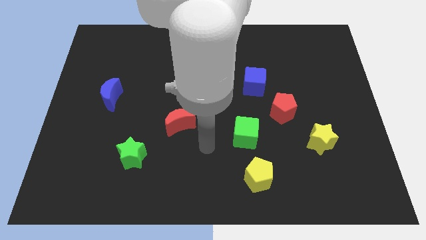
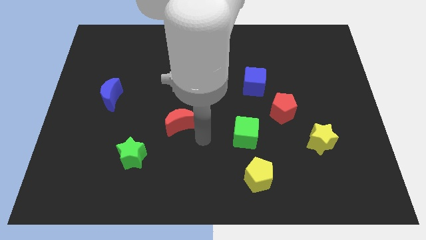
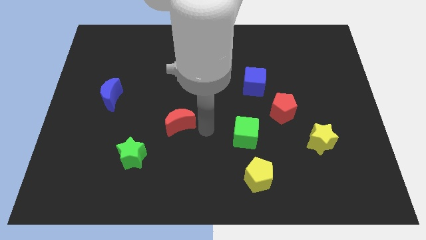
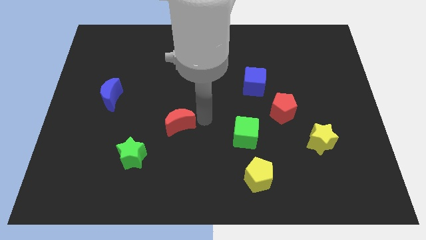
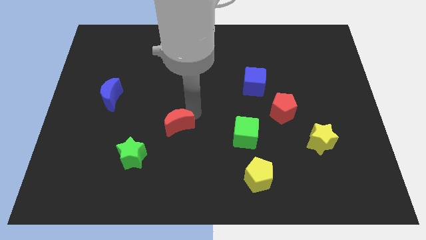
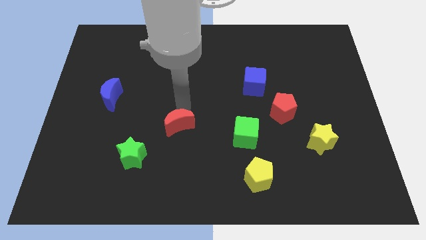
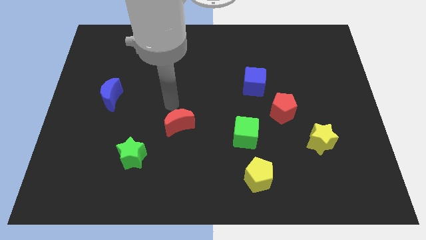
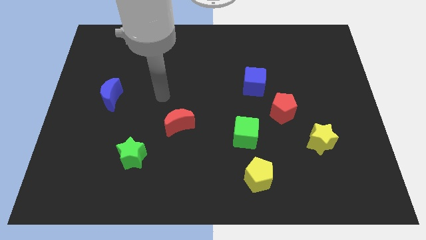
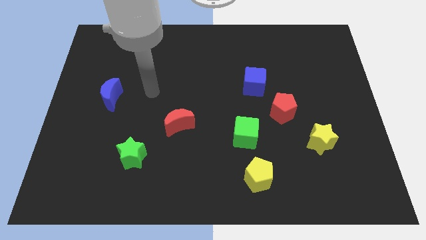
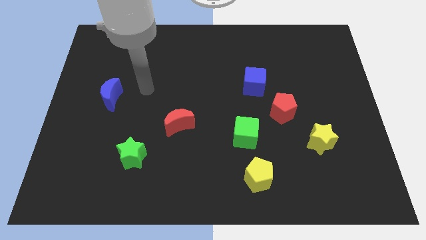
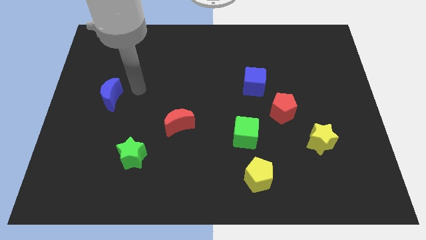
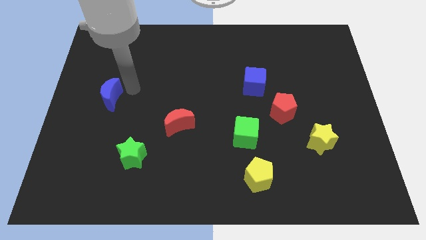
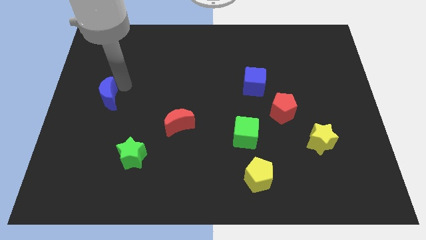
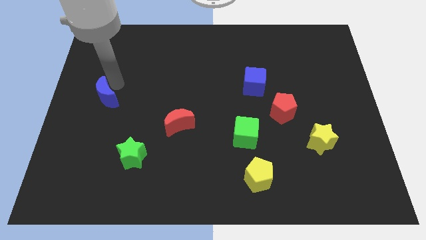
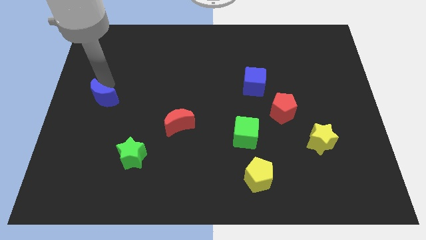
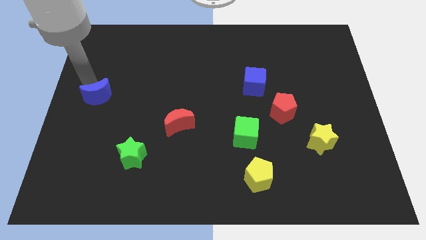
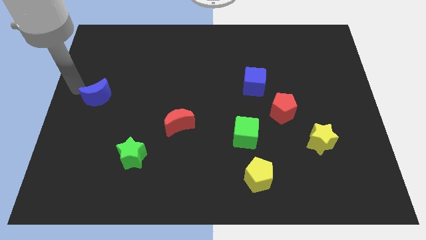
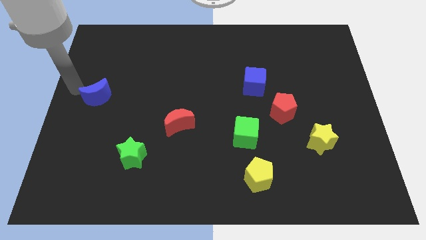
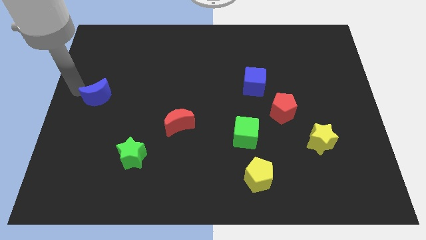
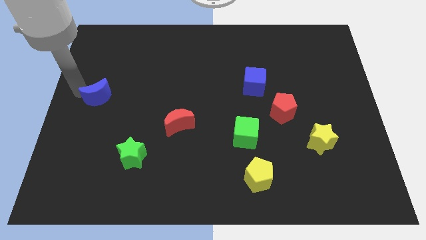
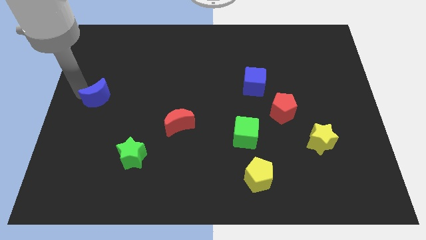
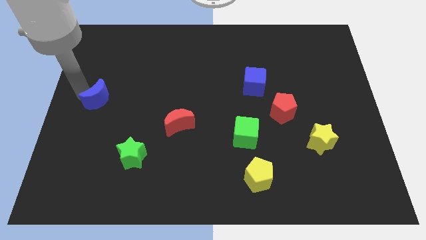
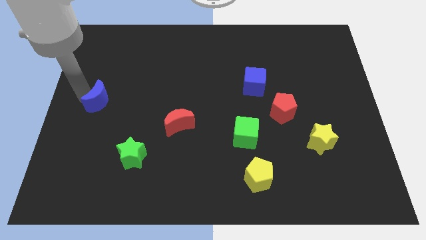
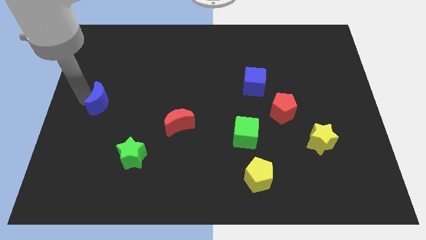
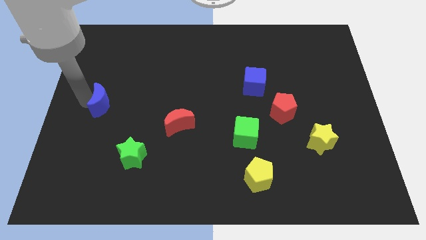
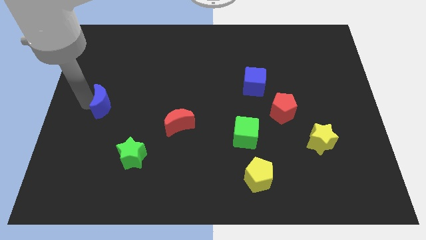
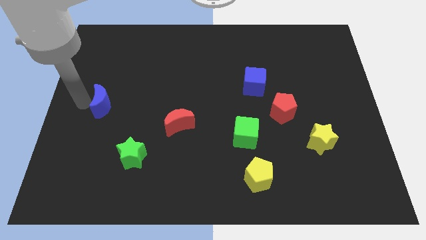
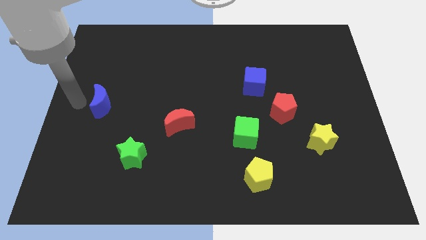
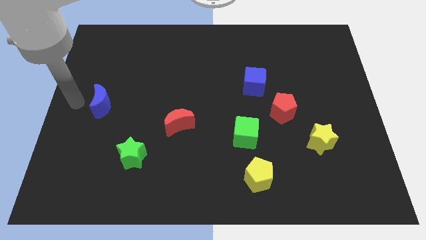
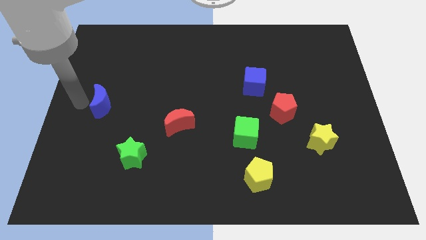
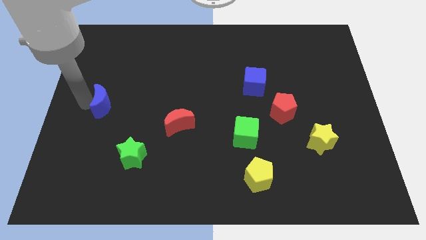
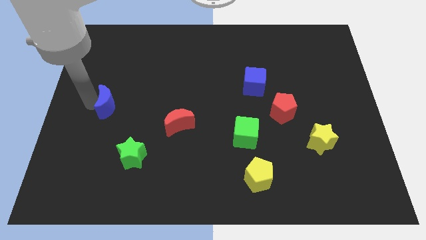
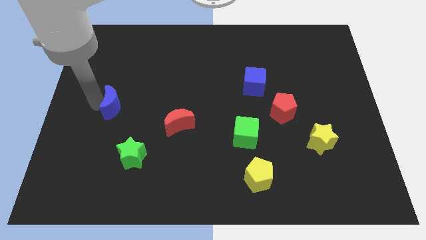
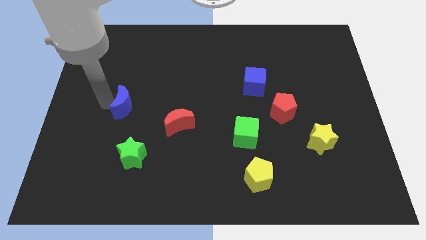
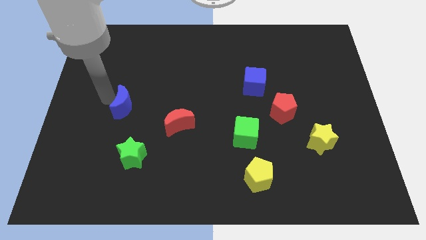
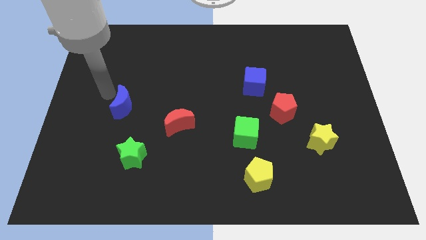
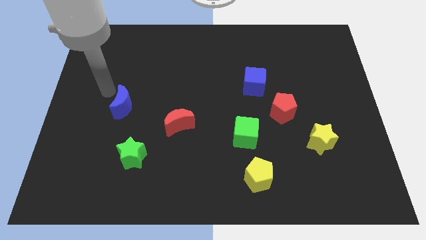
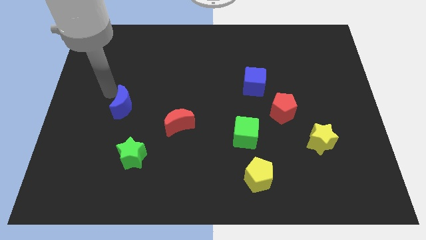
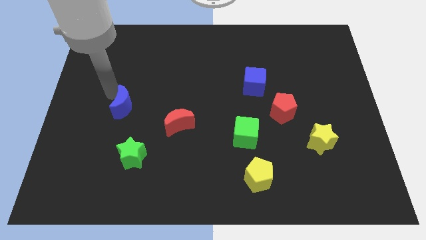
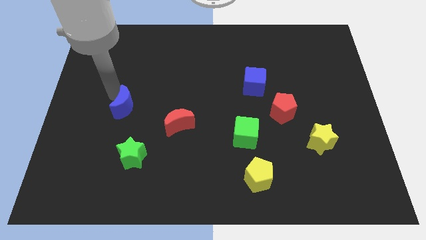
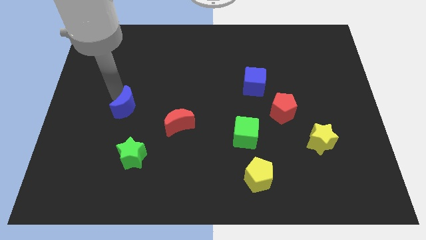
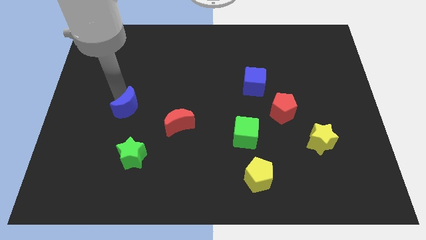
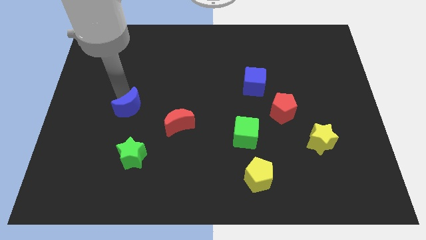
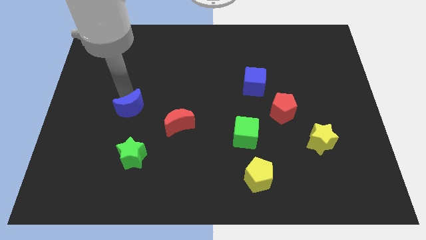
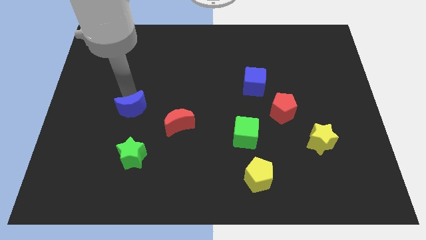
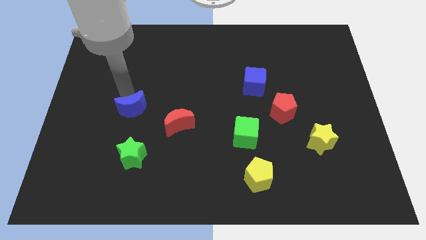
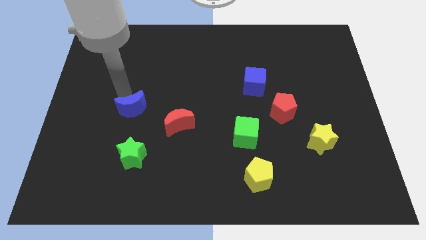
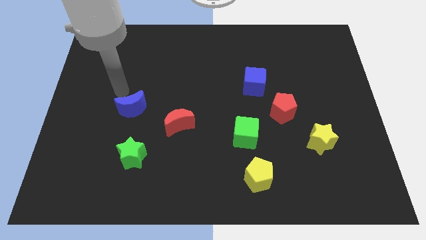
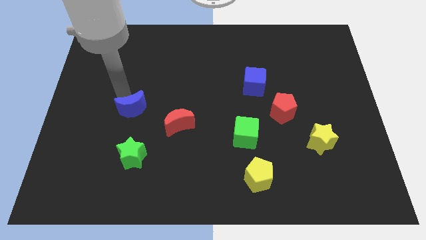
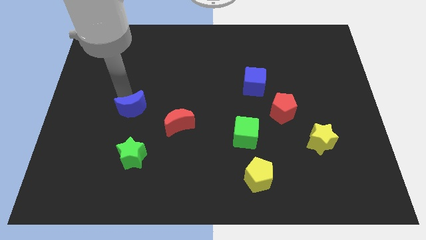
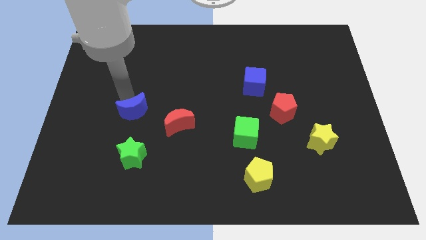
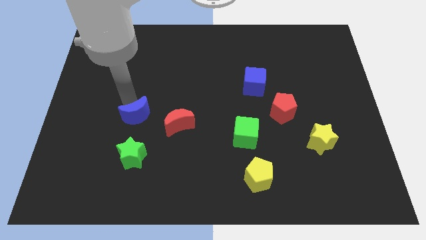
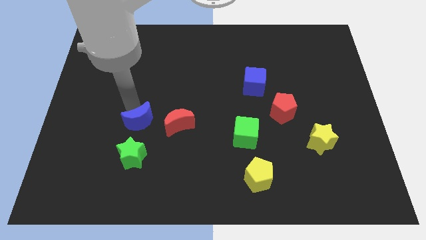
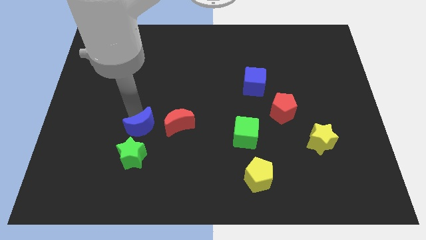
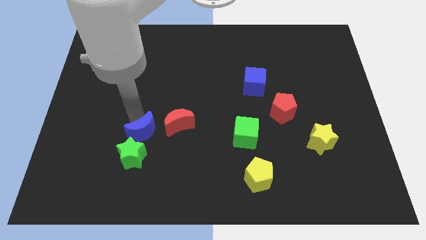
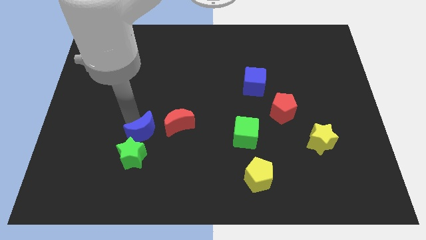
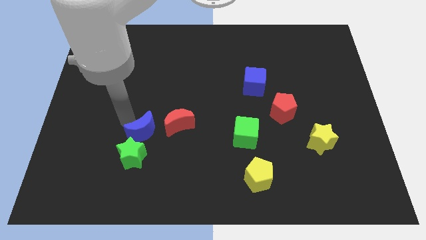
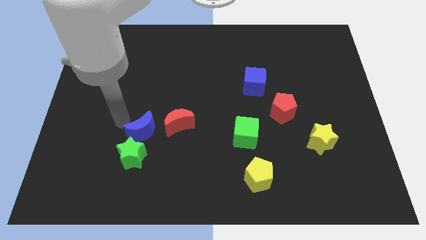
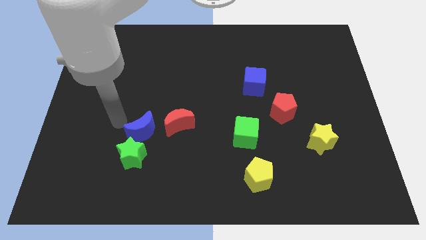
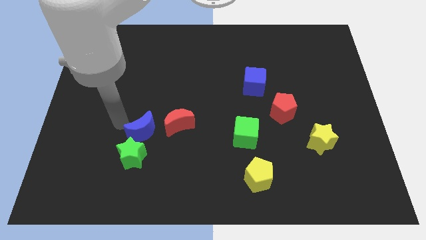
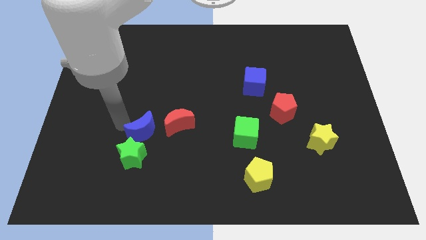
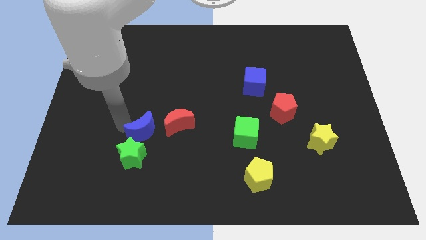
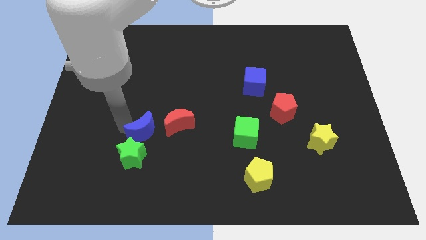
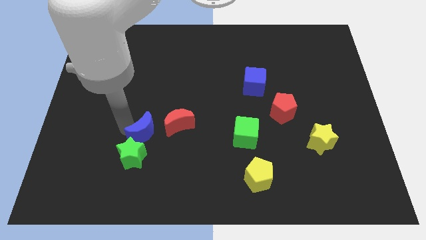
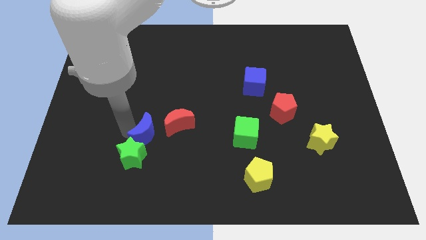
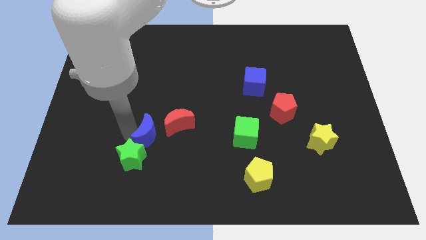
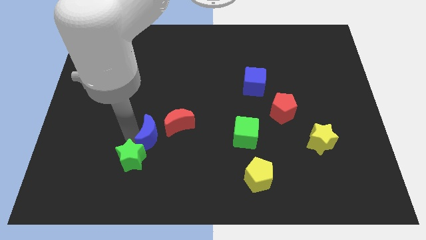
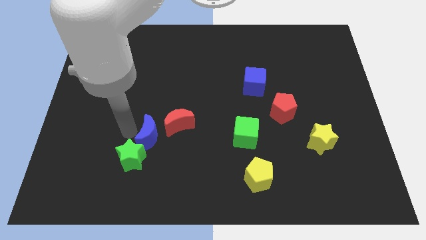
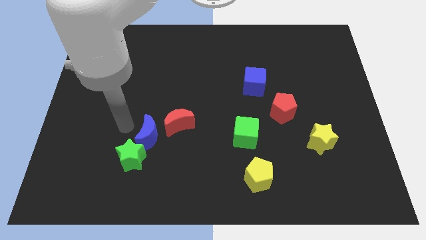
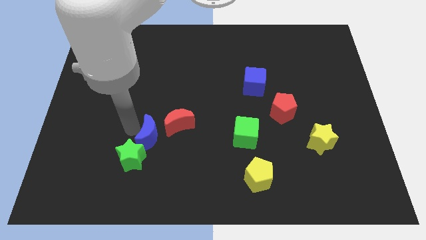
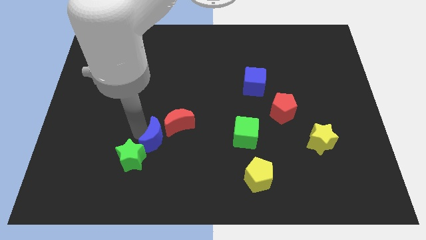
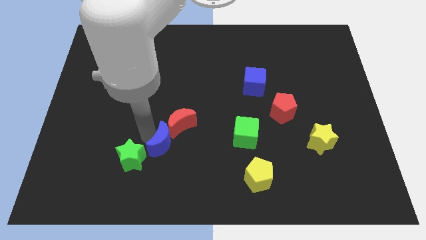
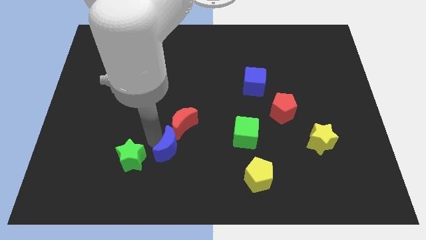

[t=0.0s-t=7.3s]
push the blue moon diagonally downwards and to the right

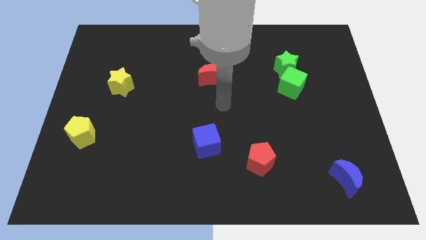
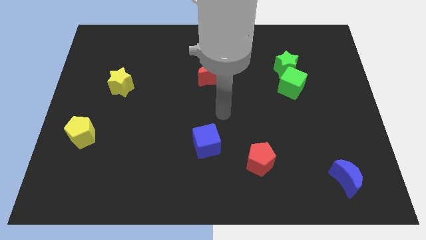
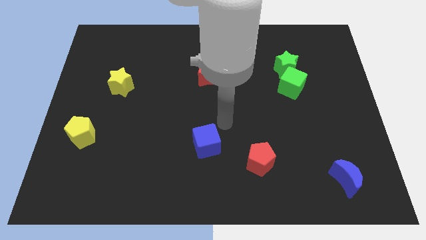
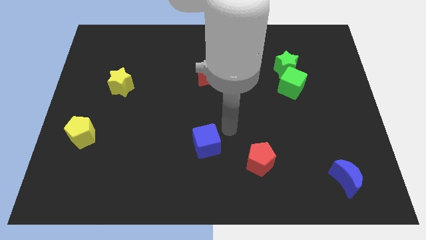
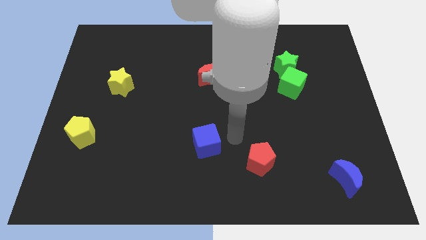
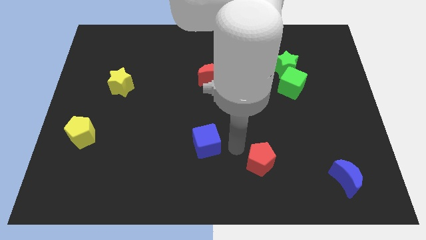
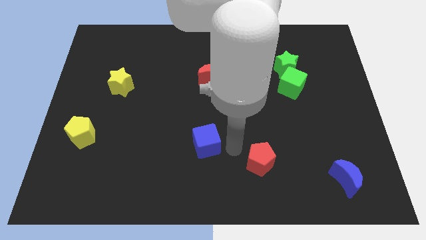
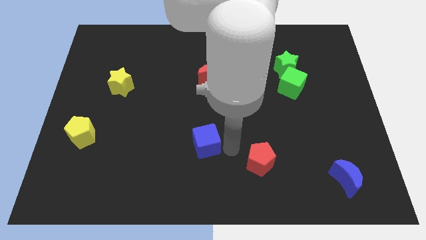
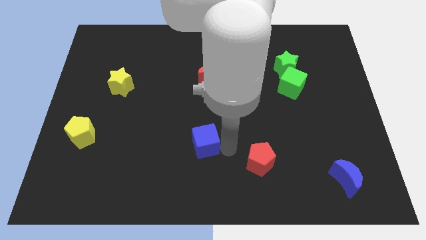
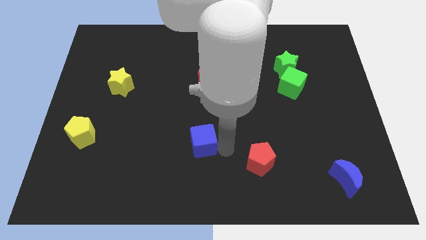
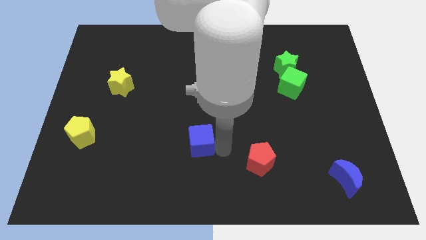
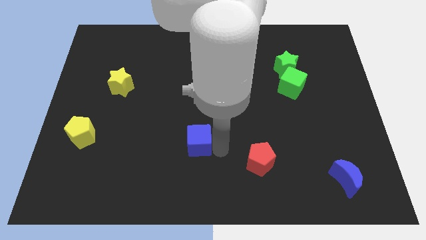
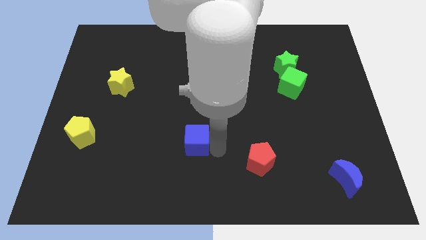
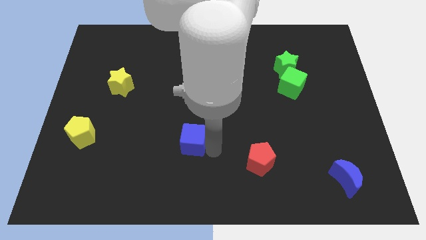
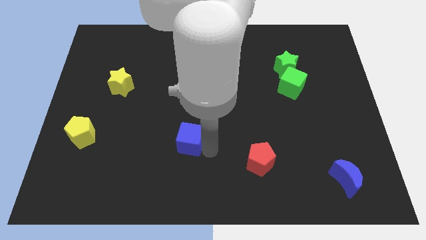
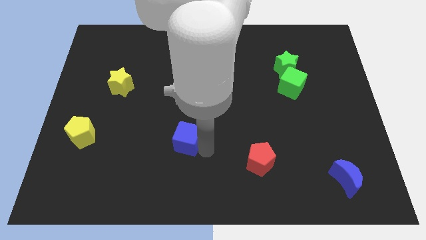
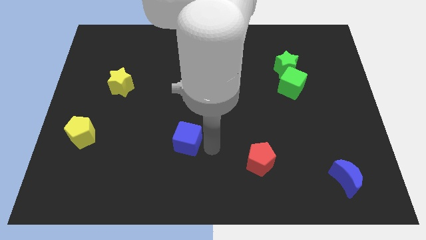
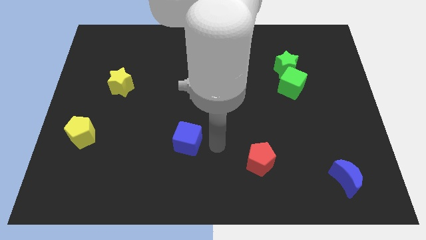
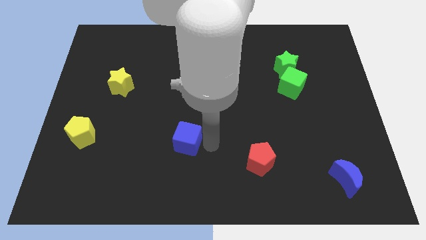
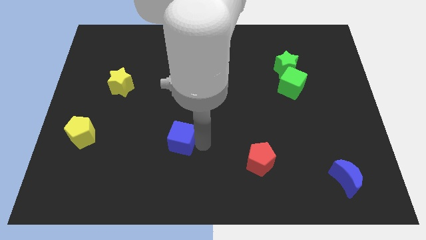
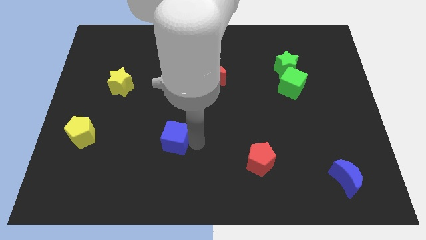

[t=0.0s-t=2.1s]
slightly push the blue cube left
